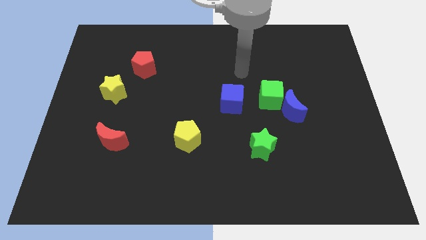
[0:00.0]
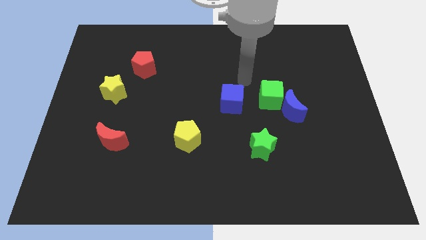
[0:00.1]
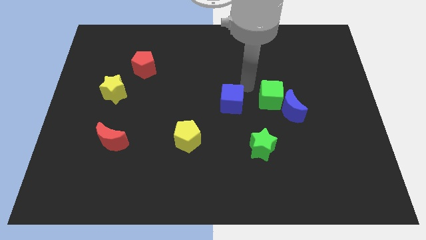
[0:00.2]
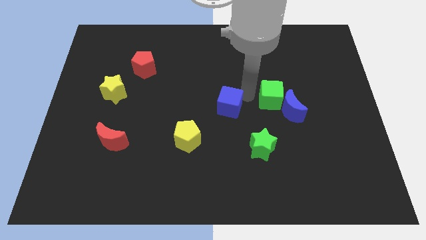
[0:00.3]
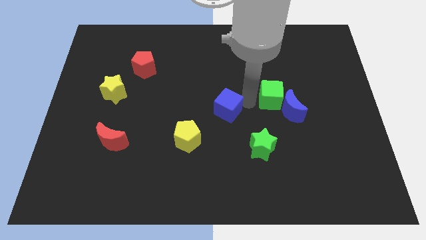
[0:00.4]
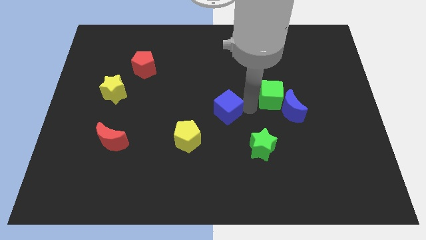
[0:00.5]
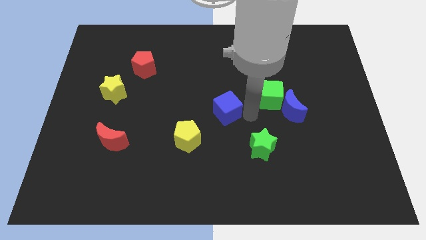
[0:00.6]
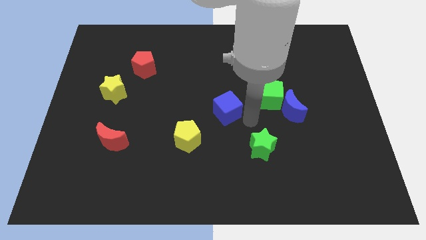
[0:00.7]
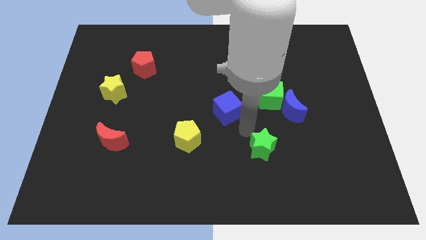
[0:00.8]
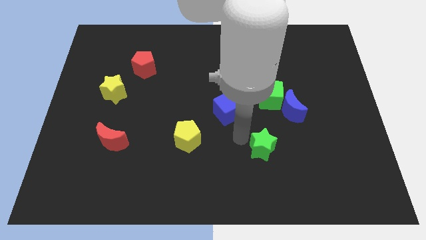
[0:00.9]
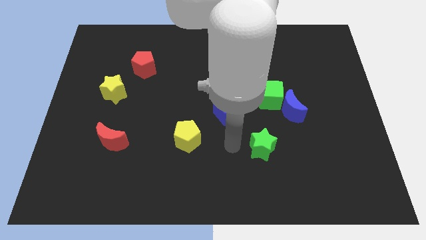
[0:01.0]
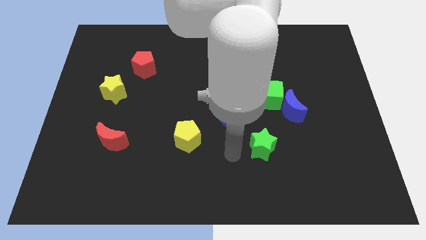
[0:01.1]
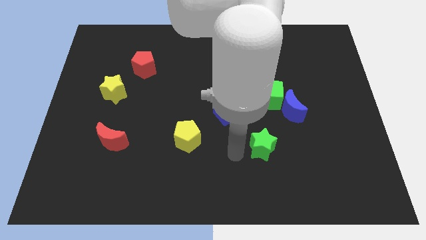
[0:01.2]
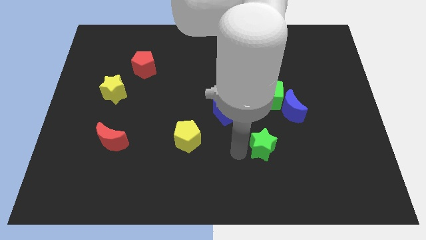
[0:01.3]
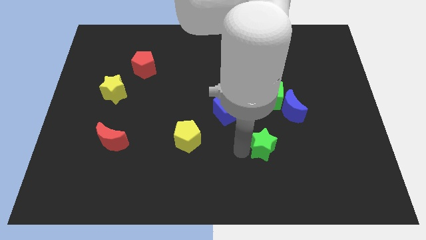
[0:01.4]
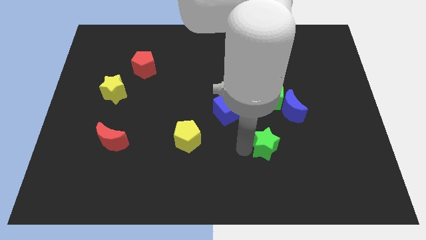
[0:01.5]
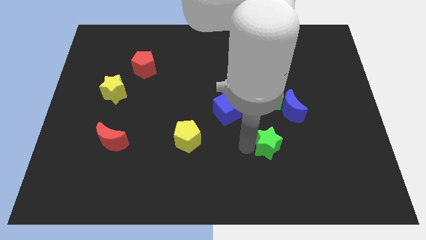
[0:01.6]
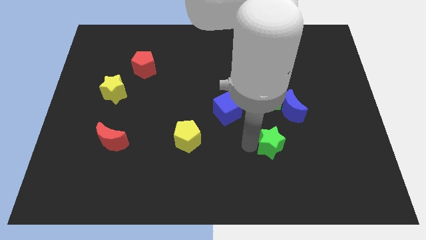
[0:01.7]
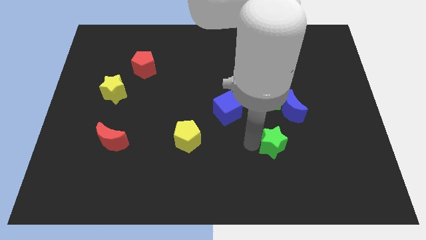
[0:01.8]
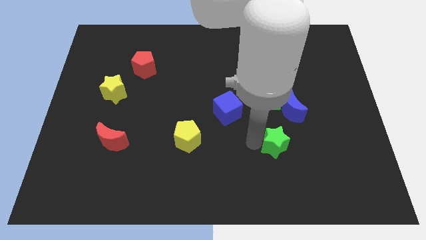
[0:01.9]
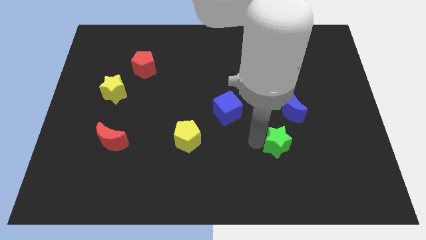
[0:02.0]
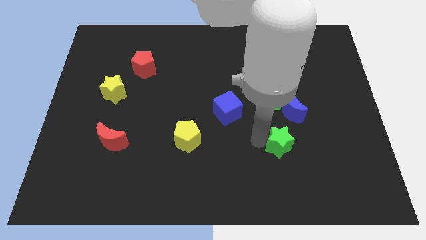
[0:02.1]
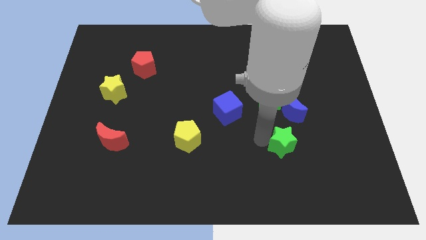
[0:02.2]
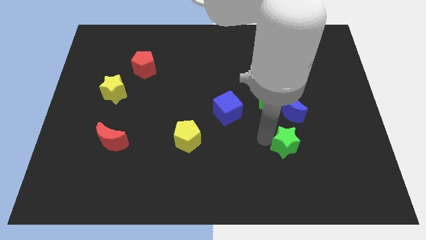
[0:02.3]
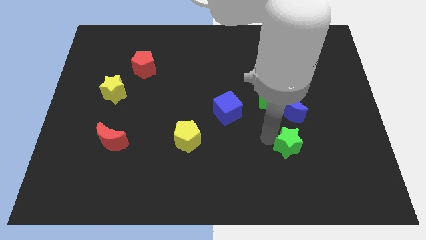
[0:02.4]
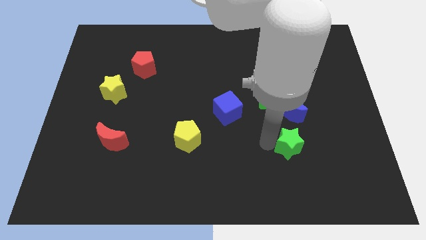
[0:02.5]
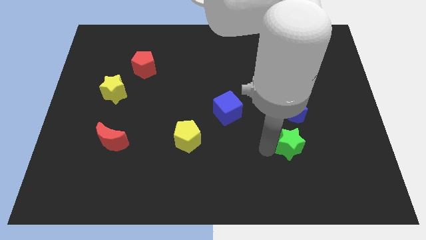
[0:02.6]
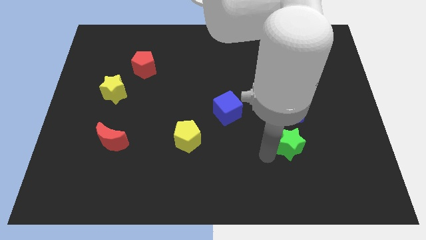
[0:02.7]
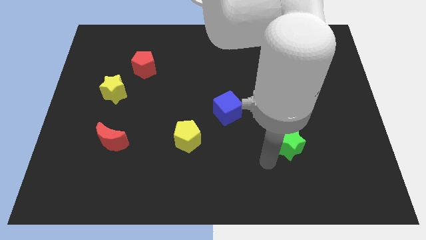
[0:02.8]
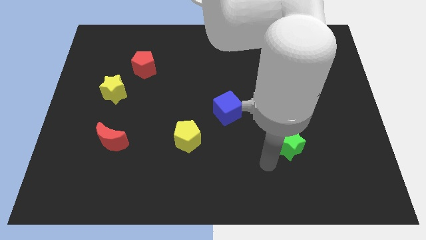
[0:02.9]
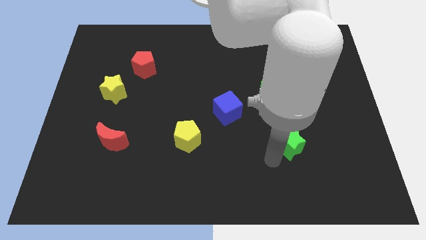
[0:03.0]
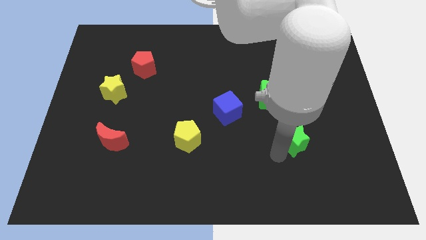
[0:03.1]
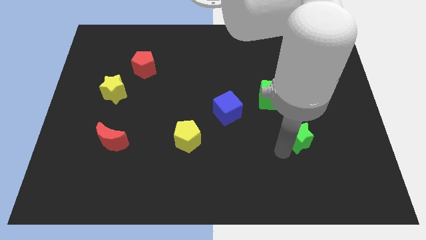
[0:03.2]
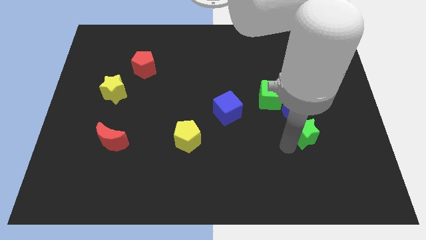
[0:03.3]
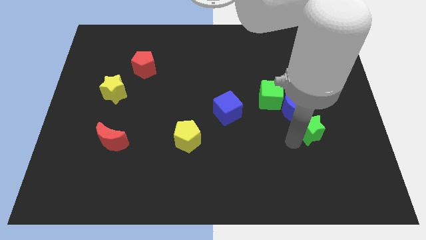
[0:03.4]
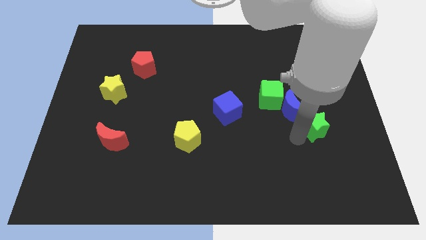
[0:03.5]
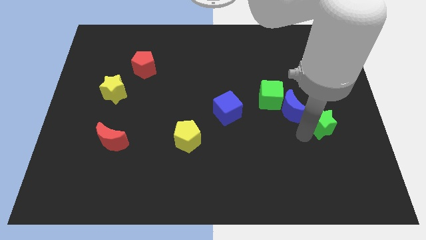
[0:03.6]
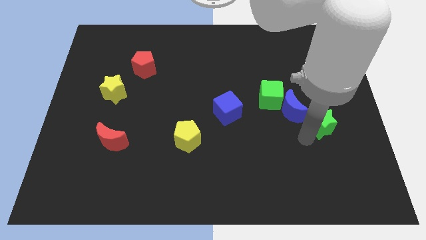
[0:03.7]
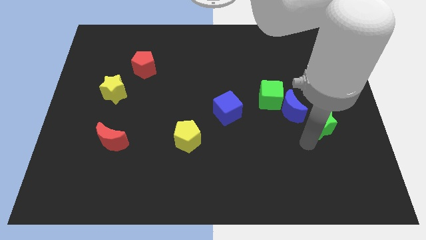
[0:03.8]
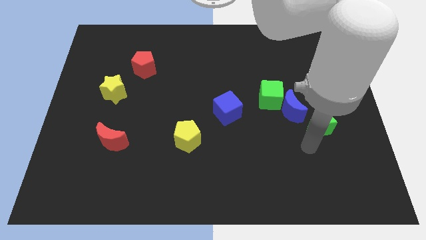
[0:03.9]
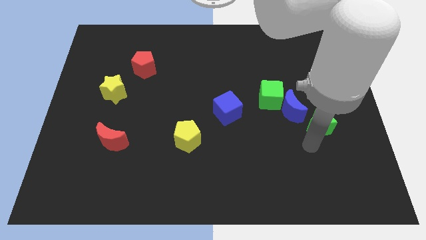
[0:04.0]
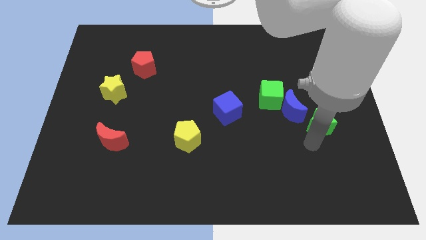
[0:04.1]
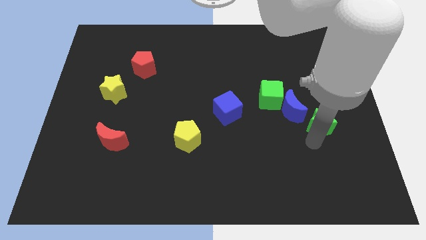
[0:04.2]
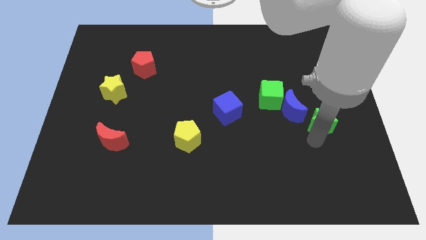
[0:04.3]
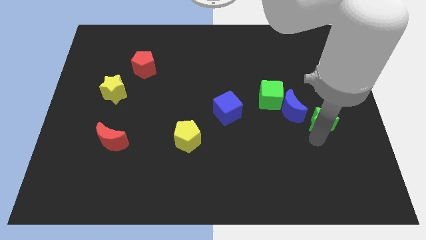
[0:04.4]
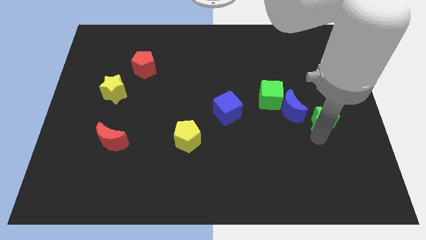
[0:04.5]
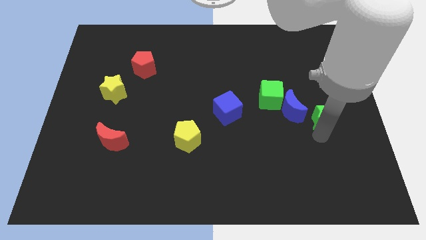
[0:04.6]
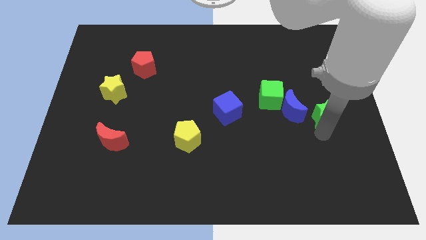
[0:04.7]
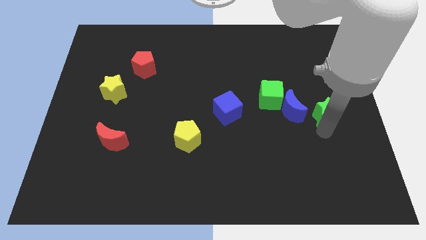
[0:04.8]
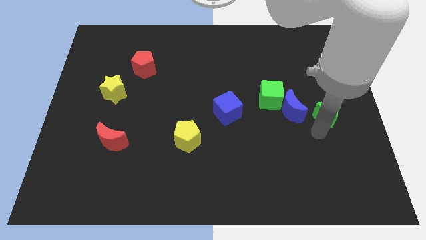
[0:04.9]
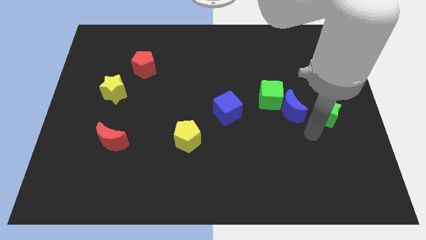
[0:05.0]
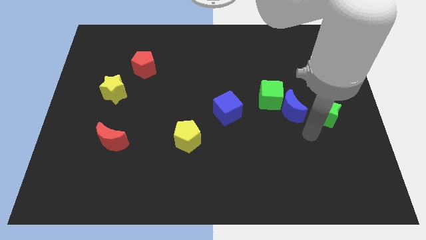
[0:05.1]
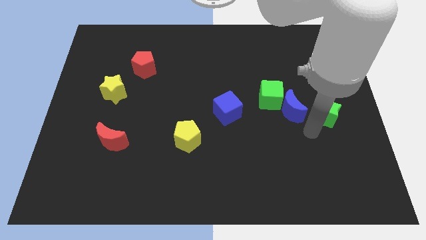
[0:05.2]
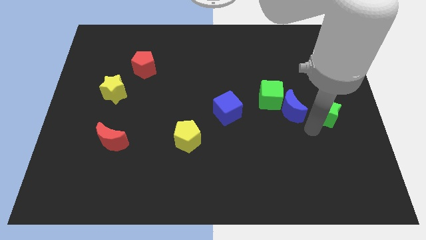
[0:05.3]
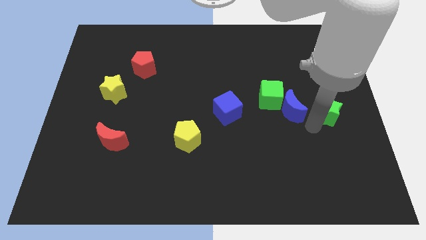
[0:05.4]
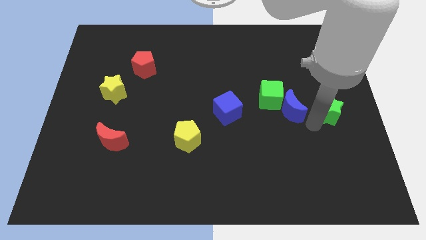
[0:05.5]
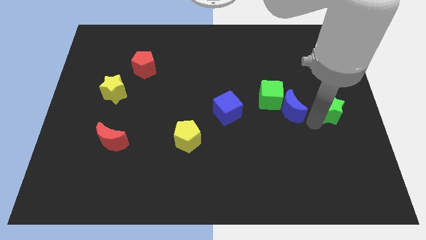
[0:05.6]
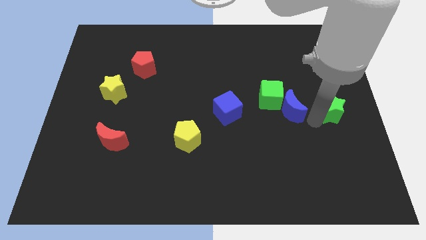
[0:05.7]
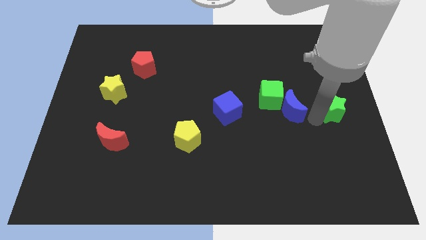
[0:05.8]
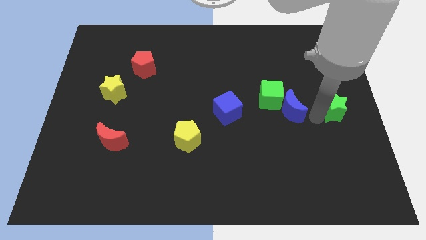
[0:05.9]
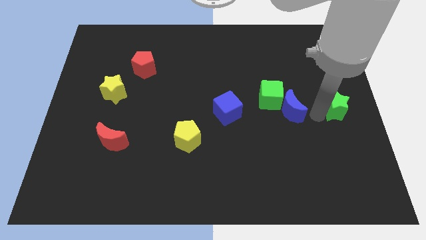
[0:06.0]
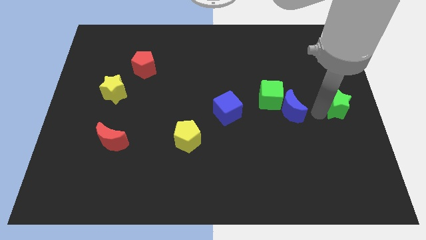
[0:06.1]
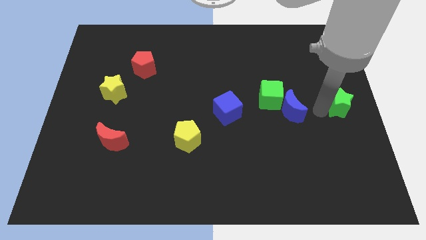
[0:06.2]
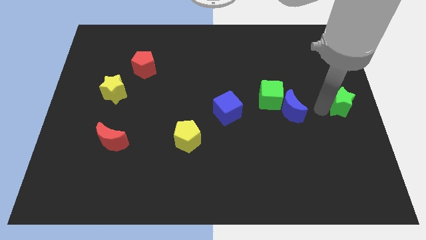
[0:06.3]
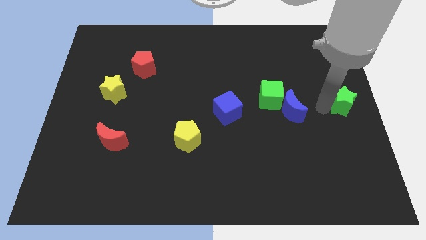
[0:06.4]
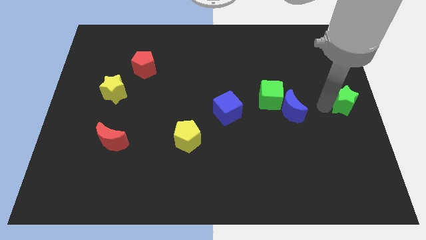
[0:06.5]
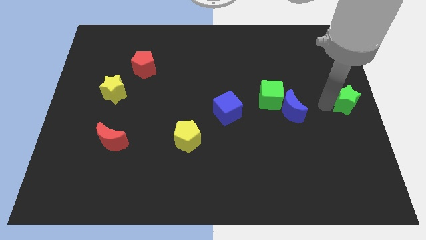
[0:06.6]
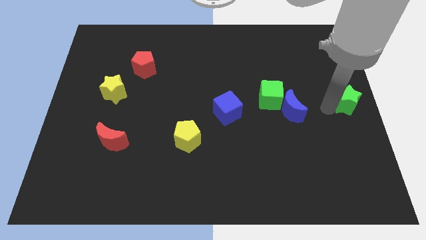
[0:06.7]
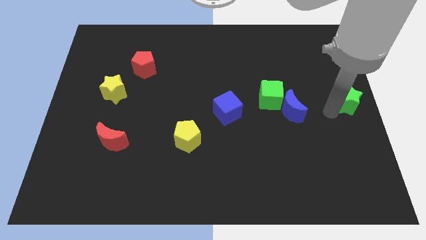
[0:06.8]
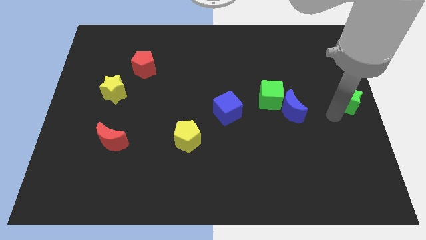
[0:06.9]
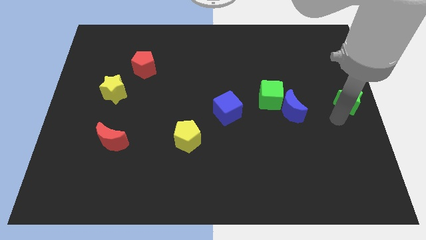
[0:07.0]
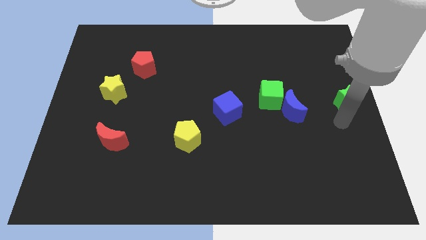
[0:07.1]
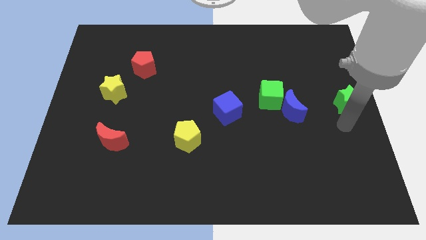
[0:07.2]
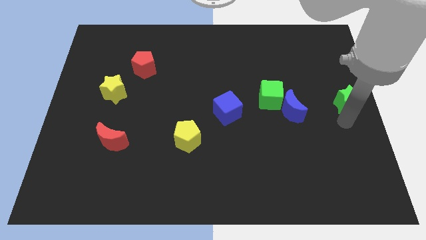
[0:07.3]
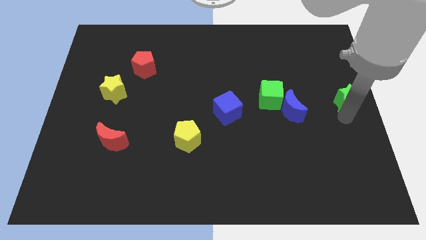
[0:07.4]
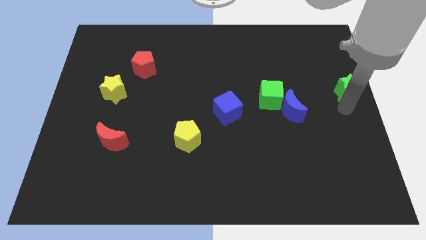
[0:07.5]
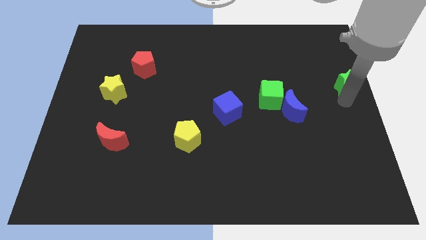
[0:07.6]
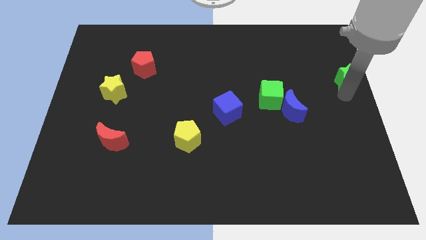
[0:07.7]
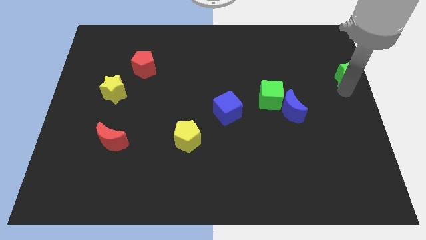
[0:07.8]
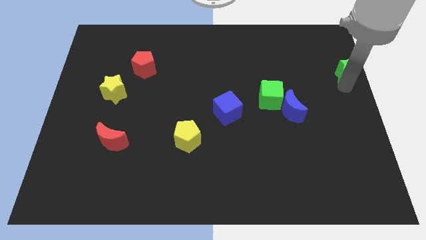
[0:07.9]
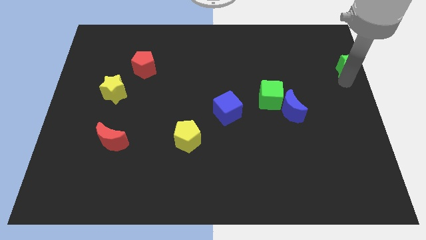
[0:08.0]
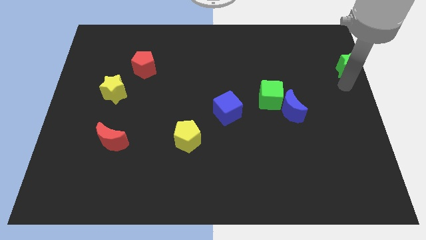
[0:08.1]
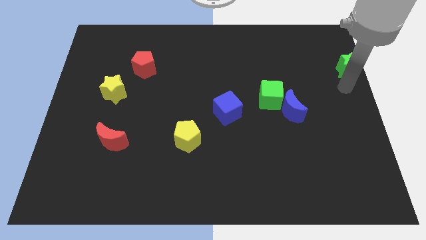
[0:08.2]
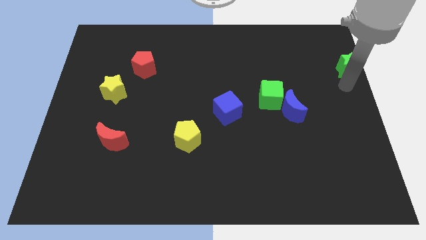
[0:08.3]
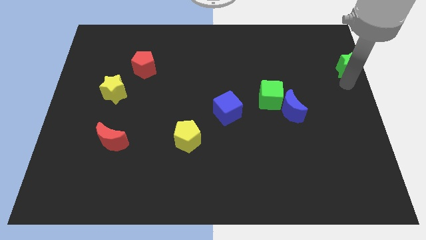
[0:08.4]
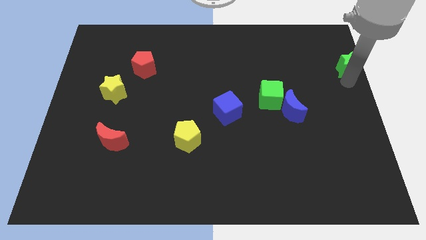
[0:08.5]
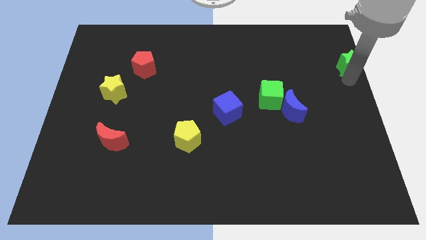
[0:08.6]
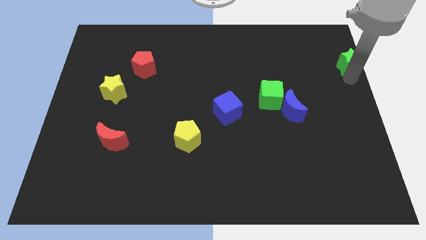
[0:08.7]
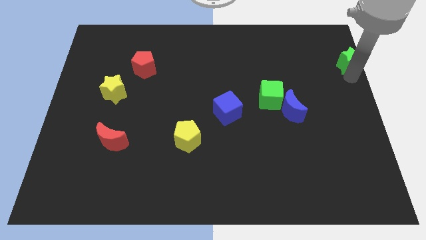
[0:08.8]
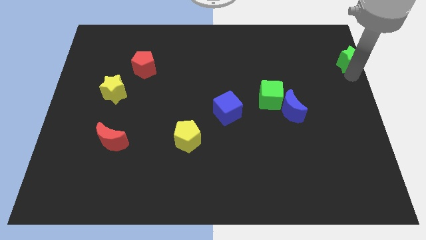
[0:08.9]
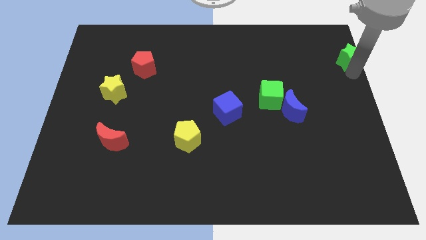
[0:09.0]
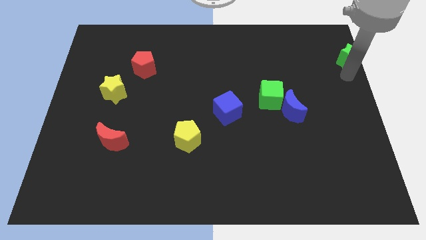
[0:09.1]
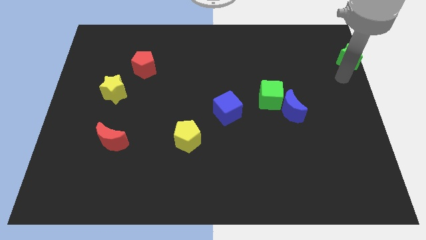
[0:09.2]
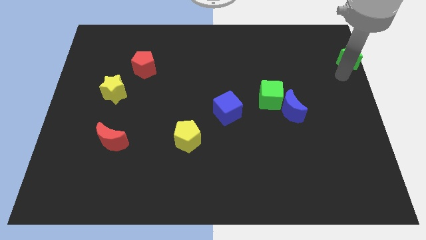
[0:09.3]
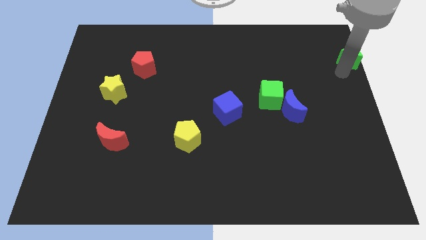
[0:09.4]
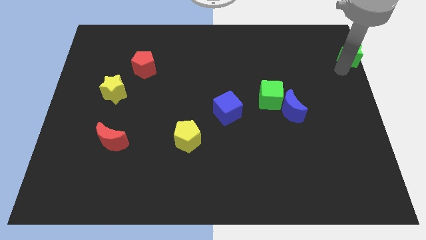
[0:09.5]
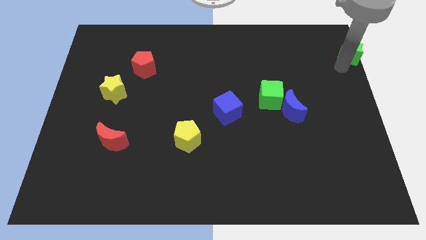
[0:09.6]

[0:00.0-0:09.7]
put the green star to the upper right corner
